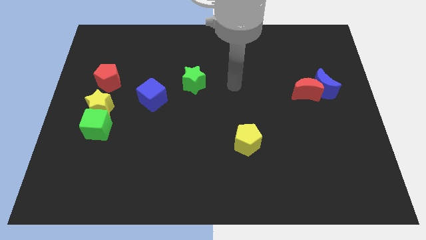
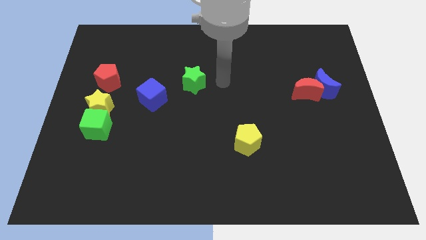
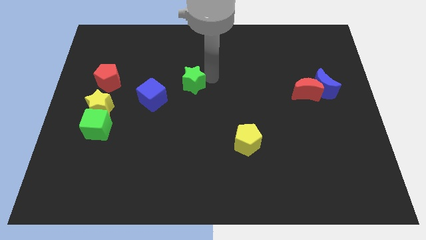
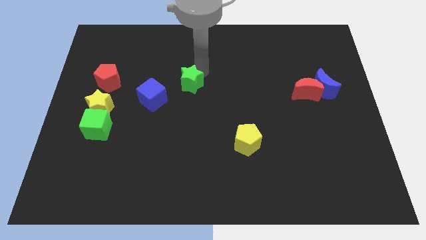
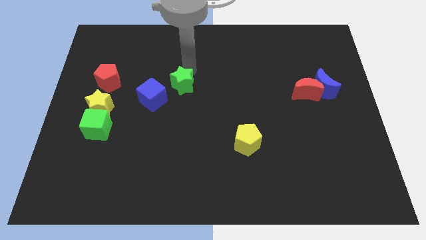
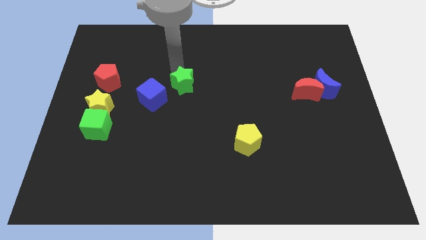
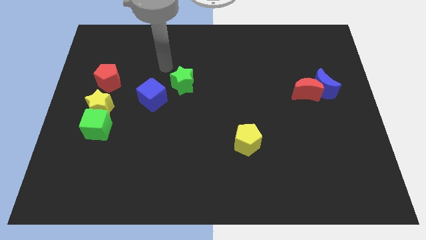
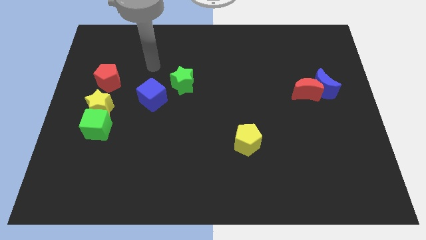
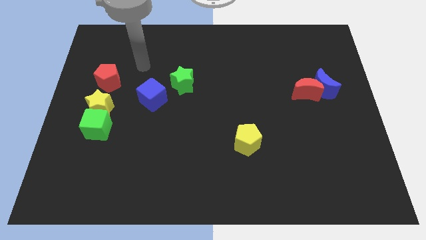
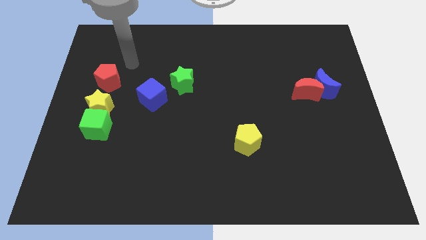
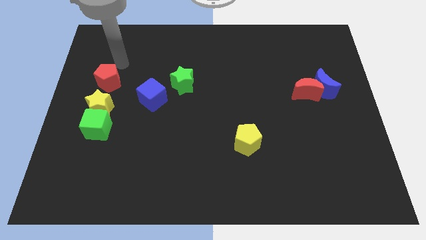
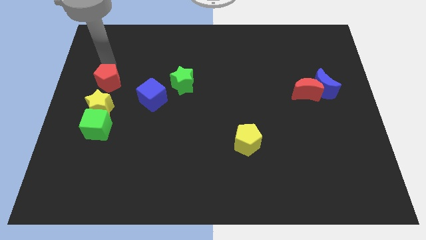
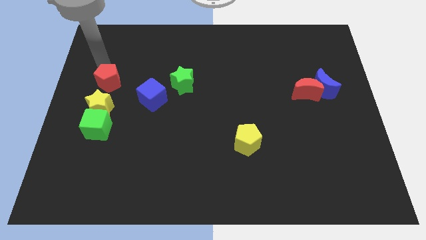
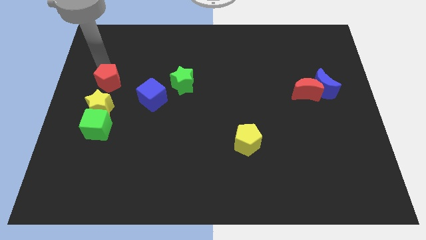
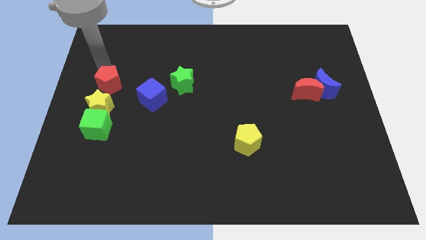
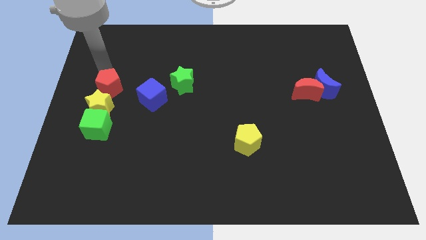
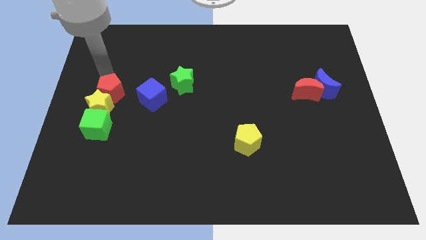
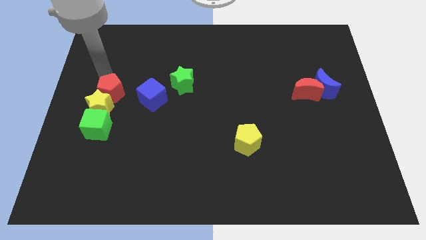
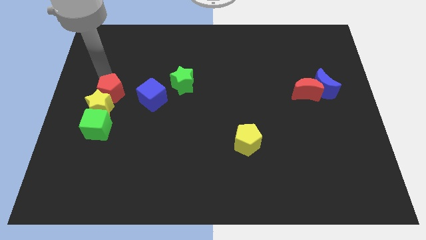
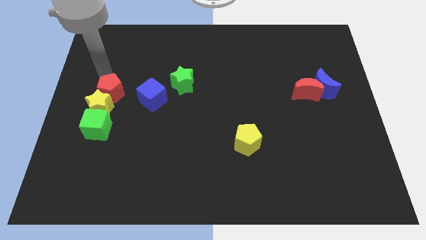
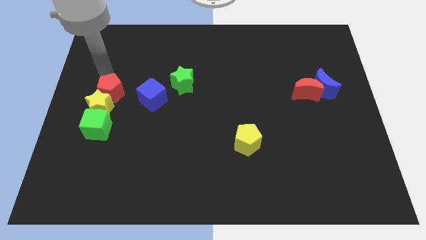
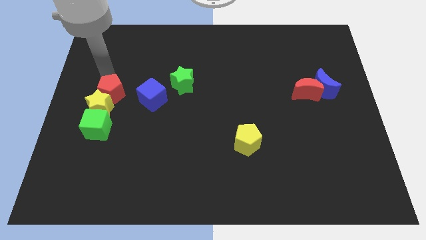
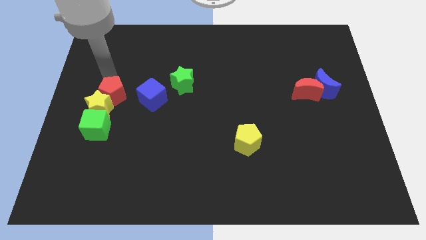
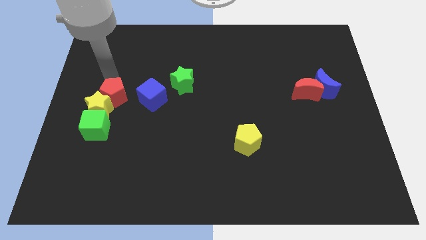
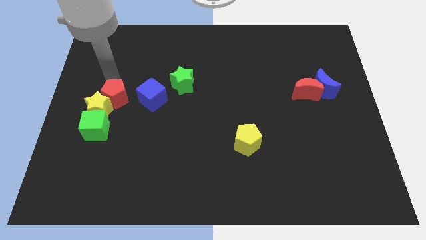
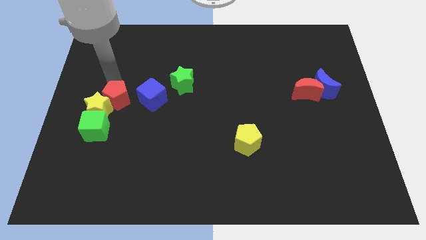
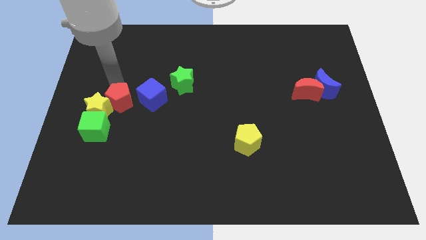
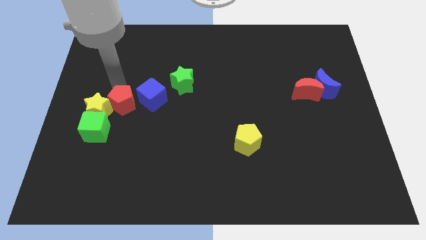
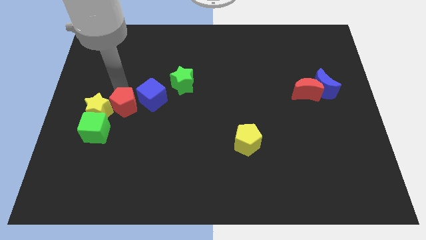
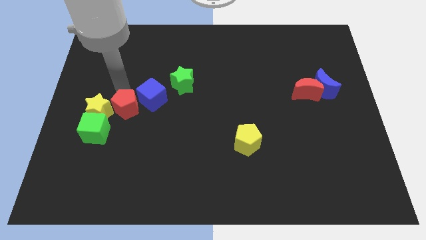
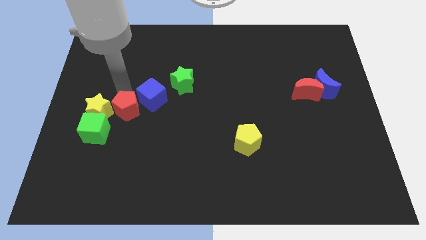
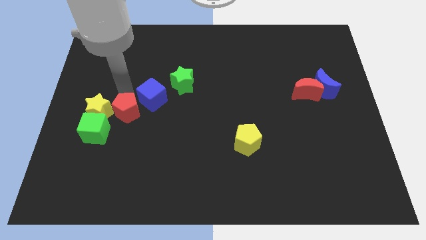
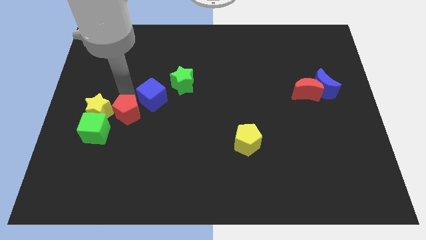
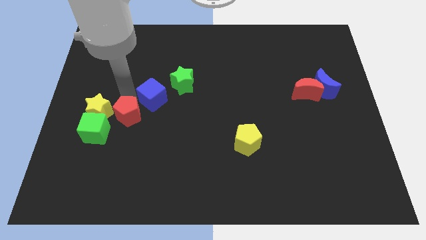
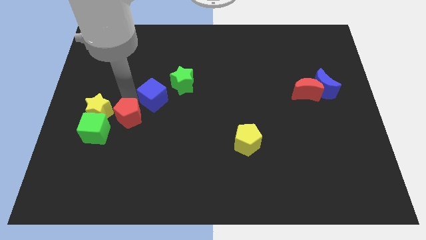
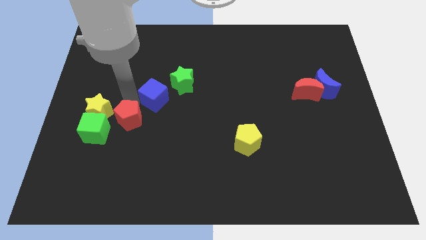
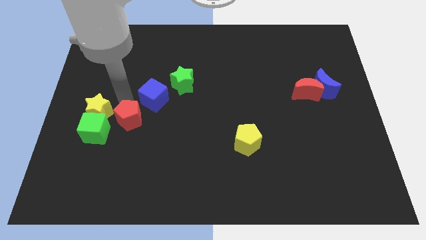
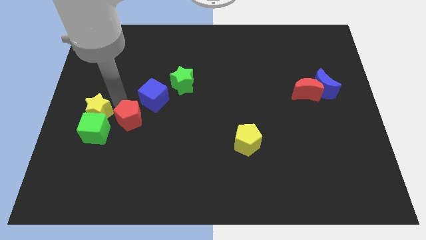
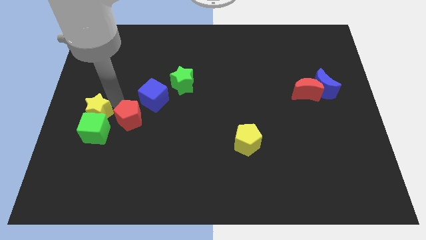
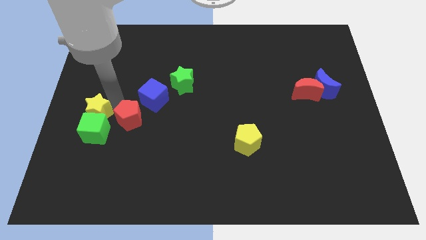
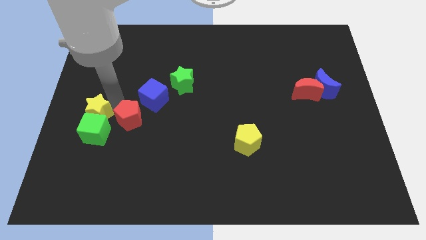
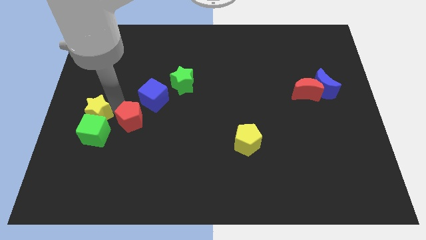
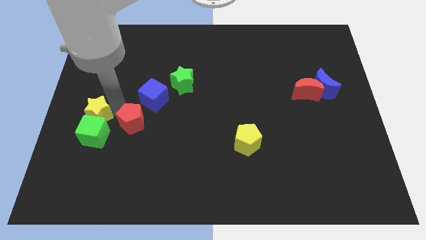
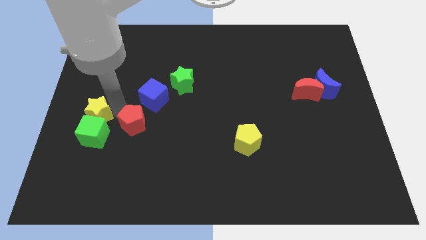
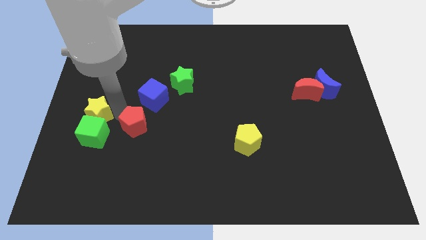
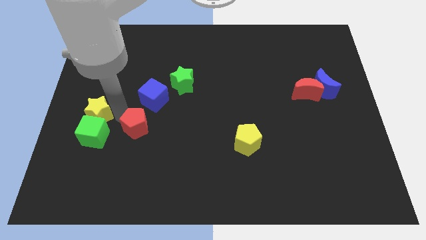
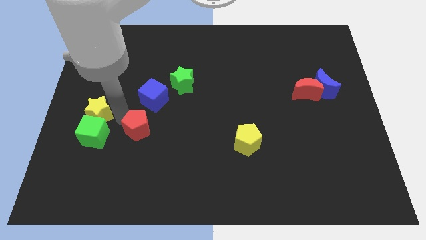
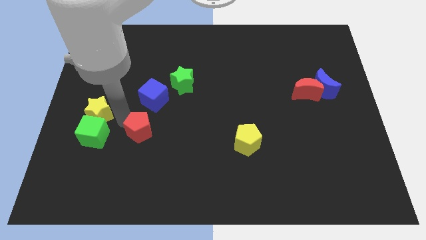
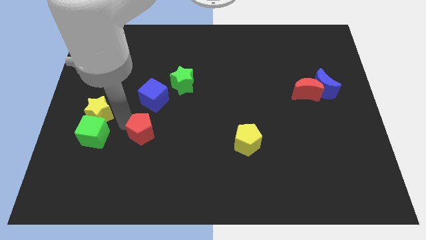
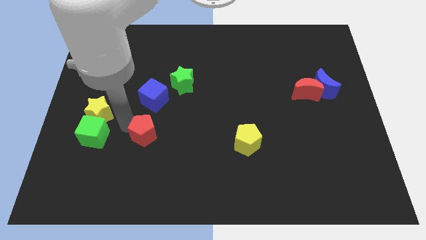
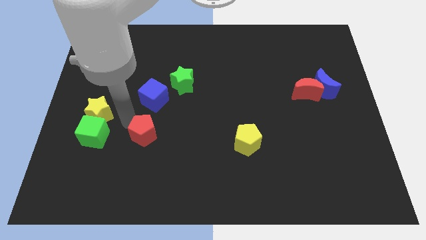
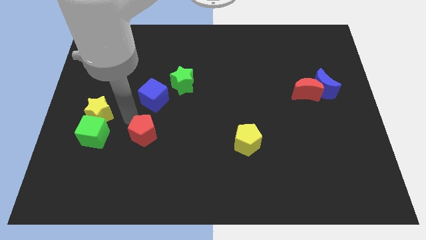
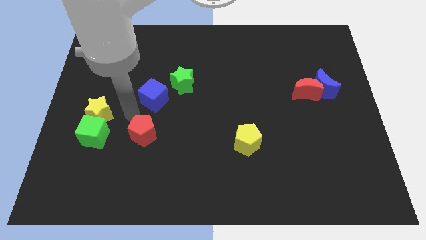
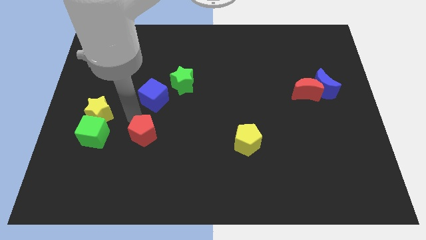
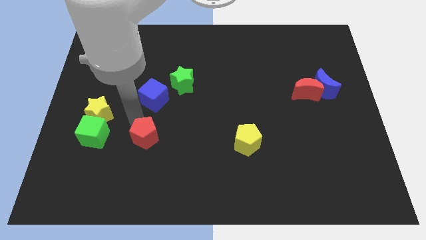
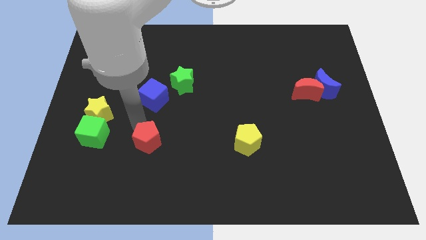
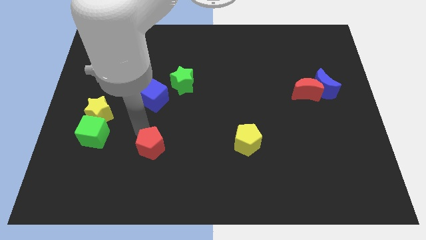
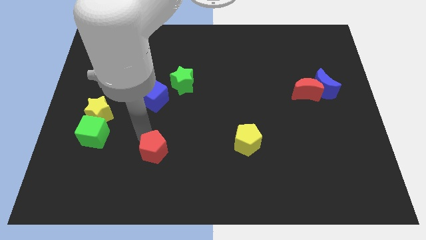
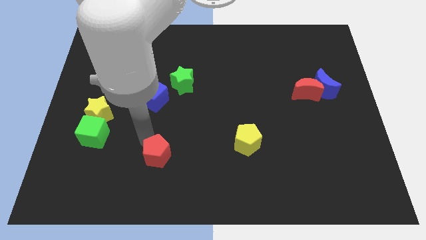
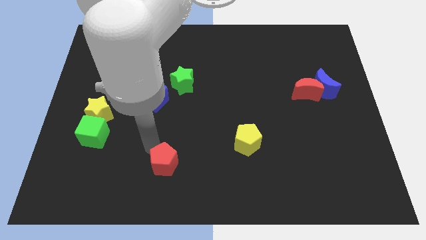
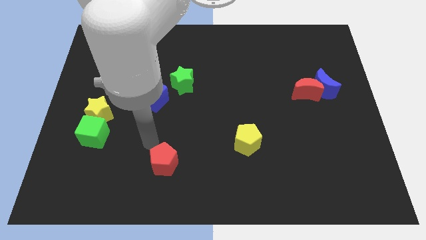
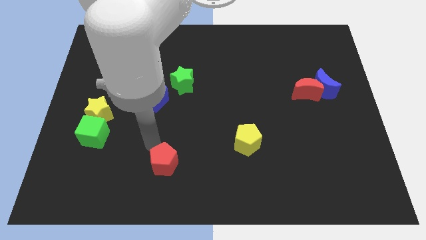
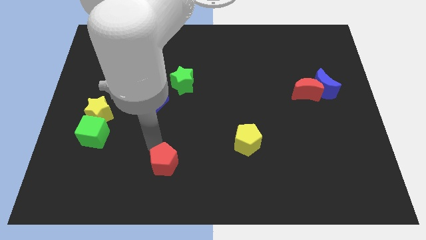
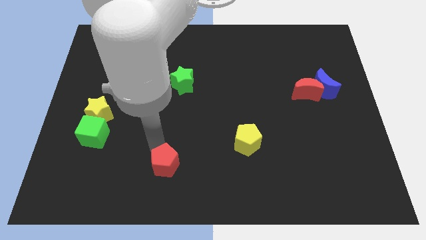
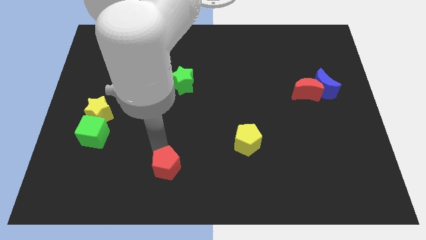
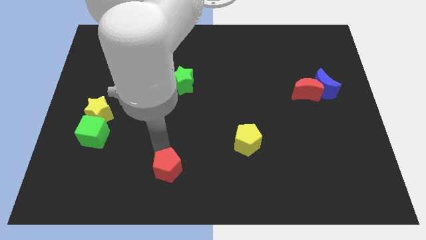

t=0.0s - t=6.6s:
move the red pentagon to the bottom side
